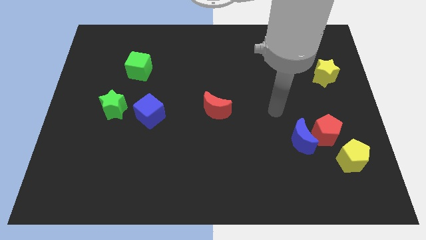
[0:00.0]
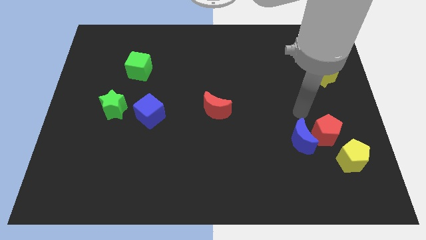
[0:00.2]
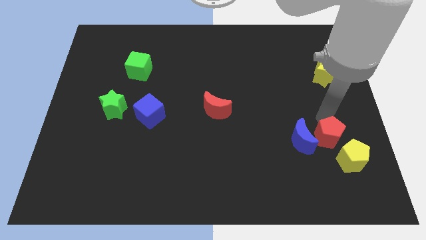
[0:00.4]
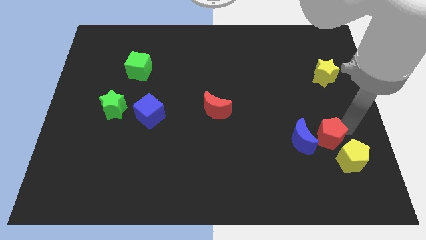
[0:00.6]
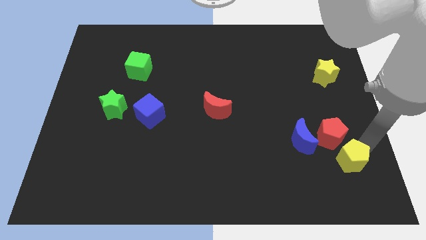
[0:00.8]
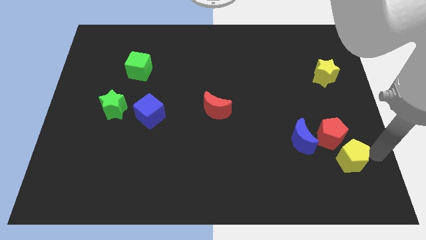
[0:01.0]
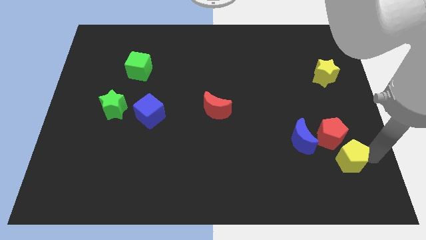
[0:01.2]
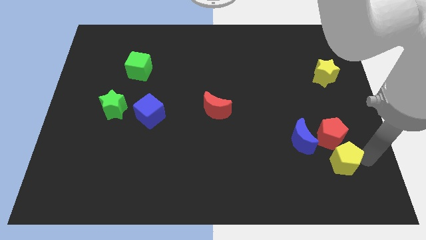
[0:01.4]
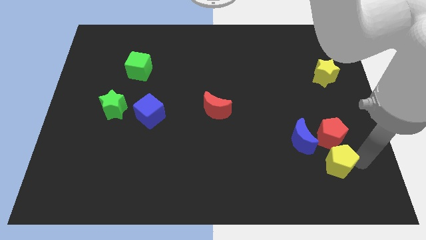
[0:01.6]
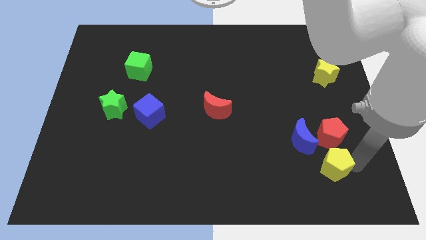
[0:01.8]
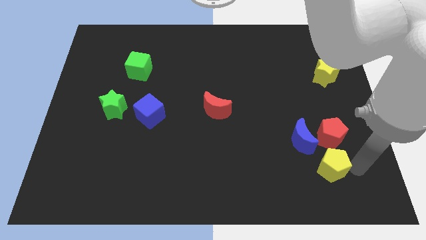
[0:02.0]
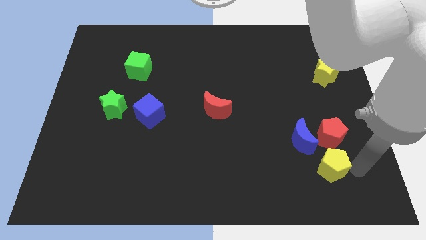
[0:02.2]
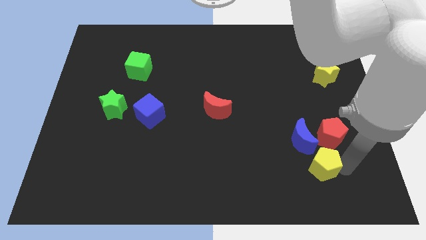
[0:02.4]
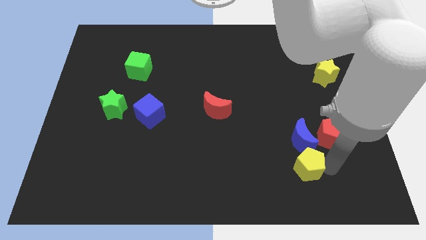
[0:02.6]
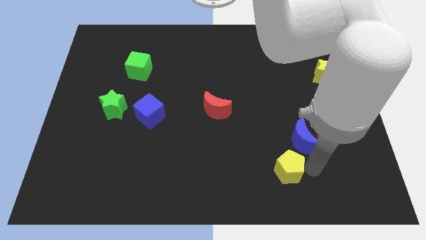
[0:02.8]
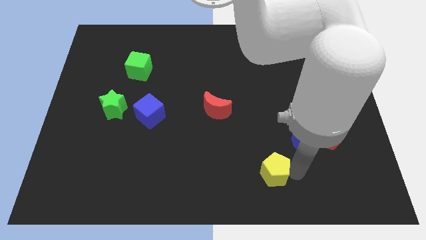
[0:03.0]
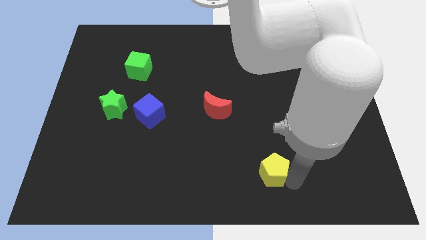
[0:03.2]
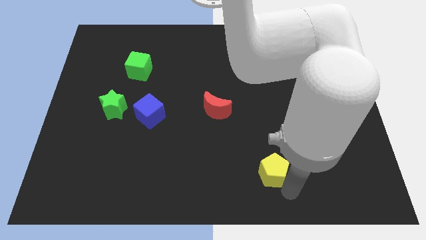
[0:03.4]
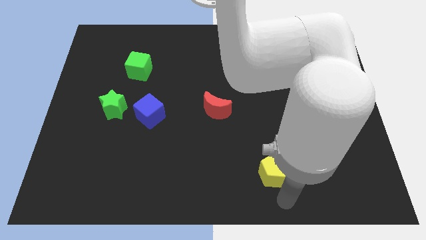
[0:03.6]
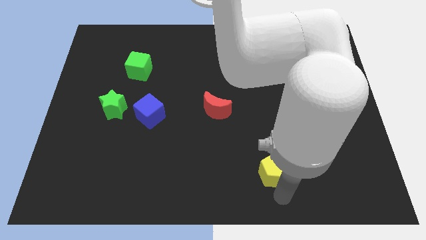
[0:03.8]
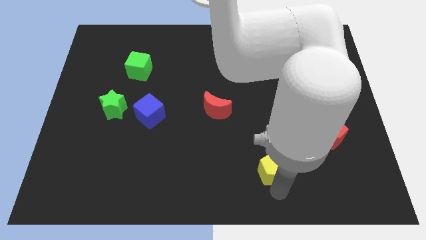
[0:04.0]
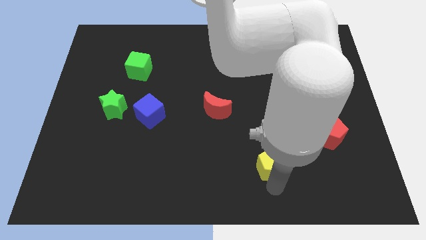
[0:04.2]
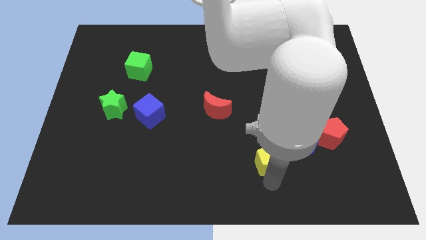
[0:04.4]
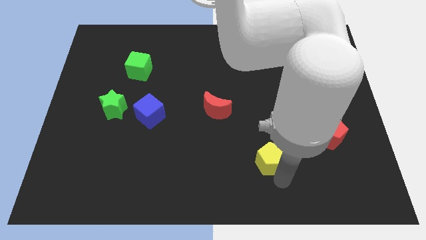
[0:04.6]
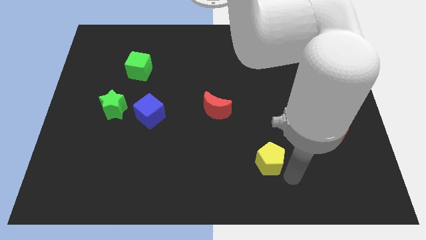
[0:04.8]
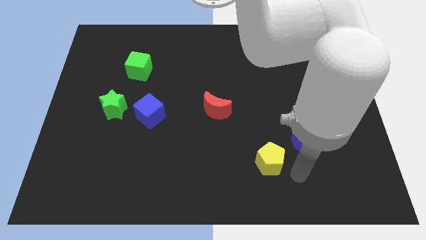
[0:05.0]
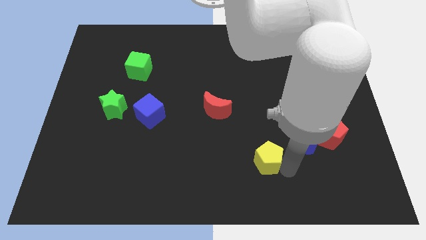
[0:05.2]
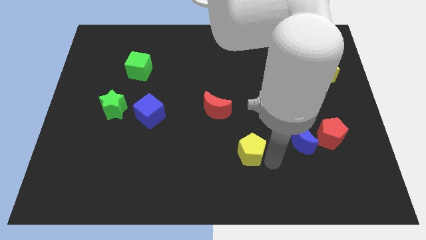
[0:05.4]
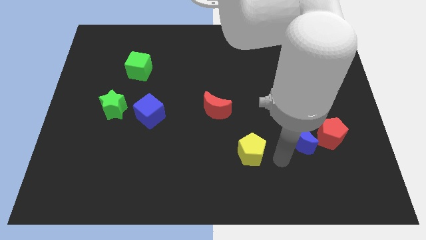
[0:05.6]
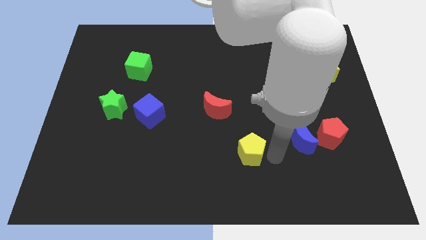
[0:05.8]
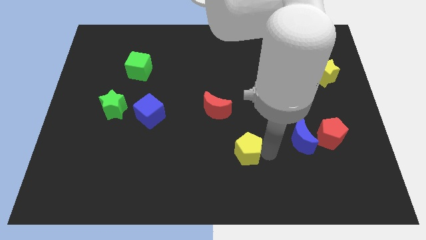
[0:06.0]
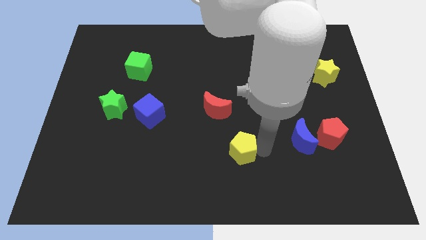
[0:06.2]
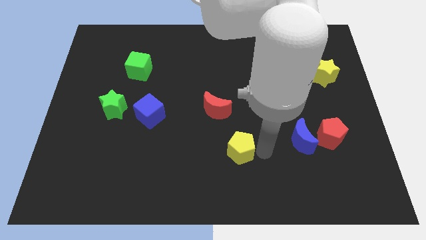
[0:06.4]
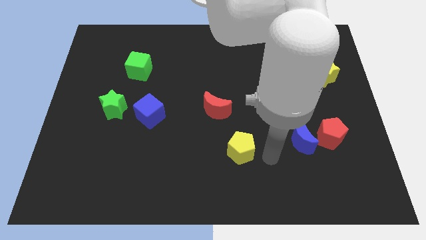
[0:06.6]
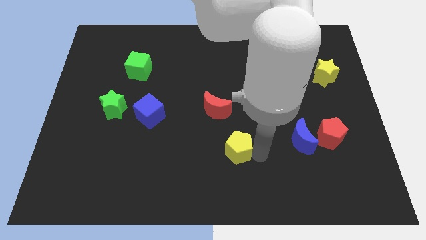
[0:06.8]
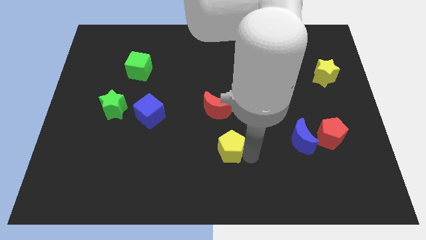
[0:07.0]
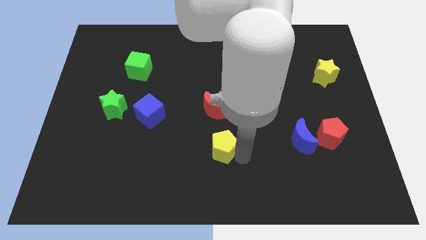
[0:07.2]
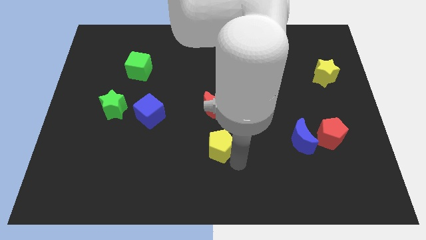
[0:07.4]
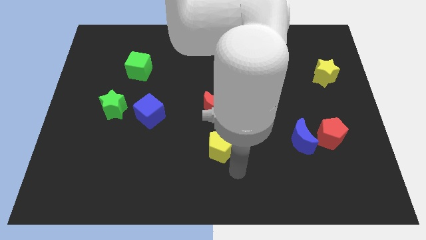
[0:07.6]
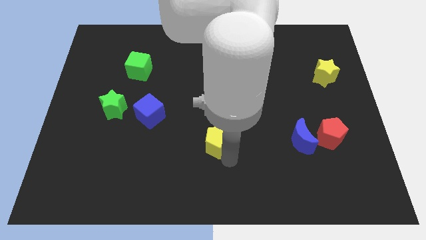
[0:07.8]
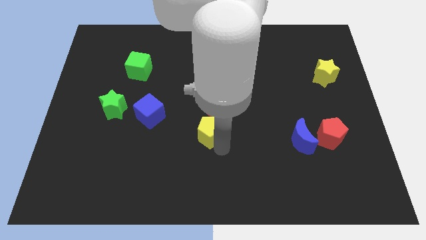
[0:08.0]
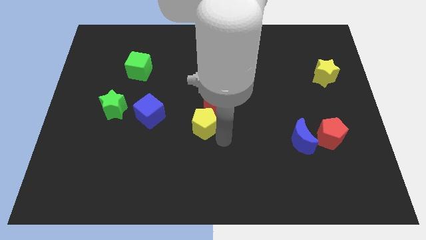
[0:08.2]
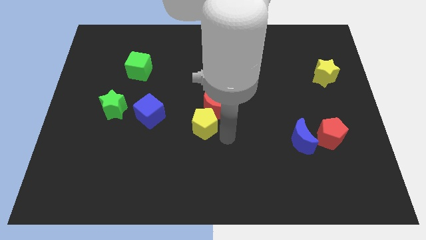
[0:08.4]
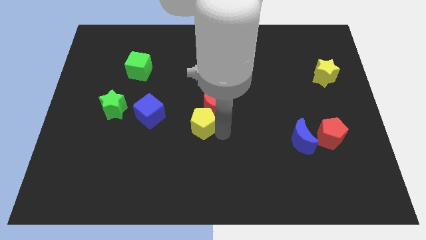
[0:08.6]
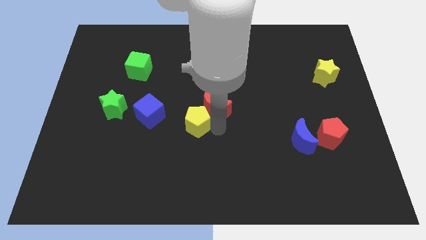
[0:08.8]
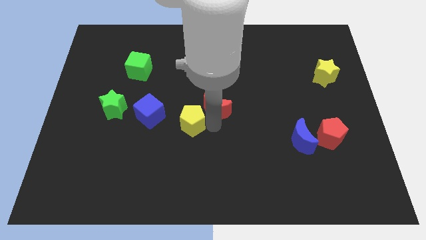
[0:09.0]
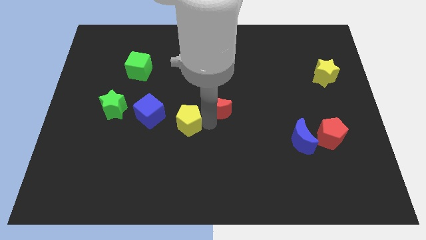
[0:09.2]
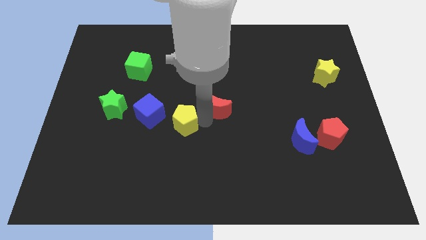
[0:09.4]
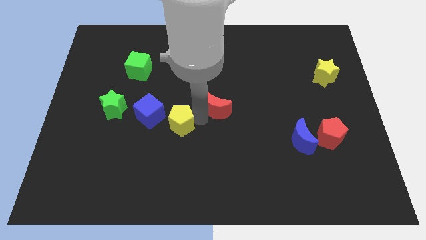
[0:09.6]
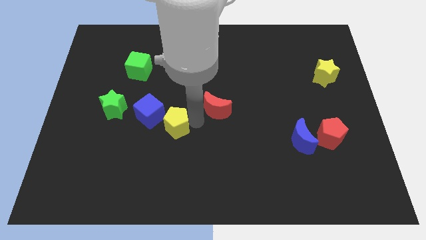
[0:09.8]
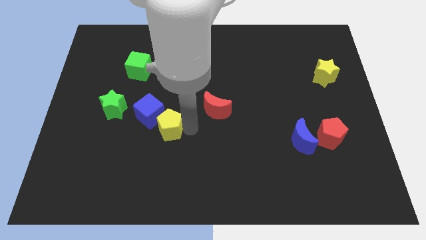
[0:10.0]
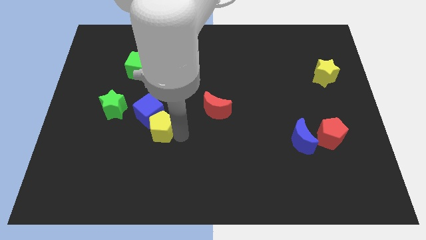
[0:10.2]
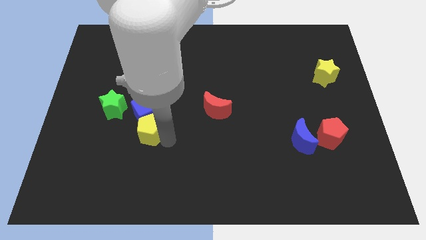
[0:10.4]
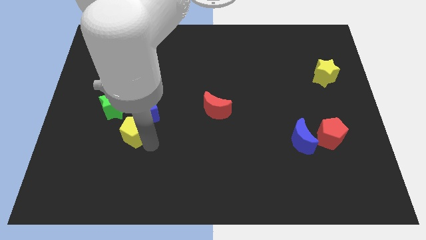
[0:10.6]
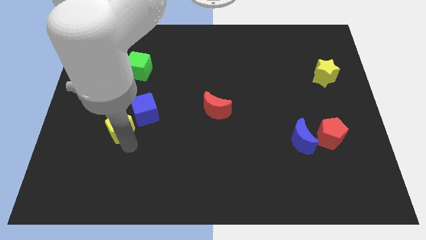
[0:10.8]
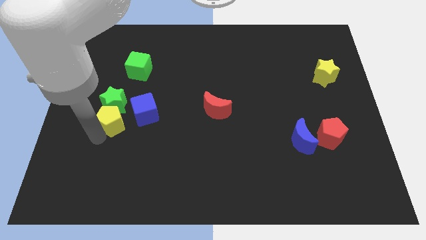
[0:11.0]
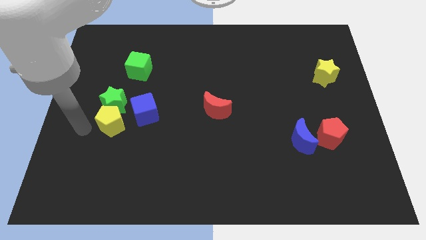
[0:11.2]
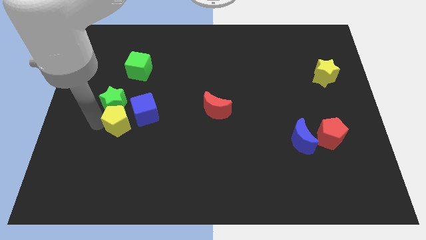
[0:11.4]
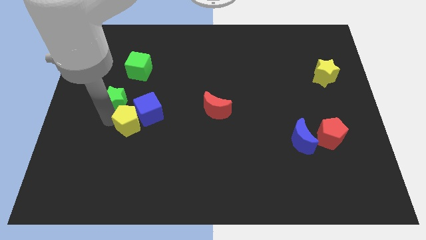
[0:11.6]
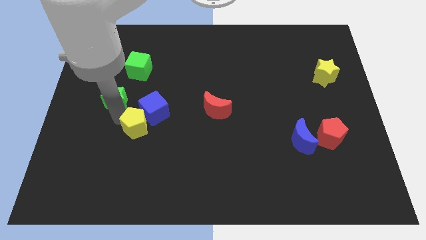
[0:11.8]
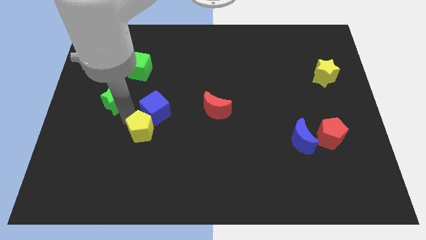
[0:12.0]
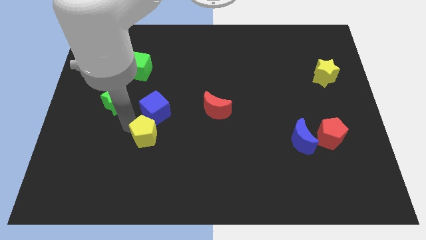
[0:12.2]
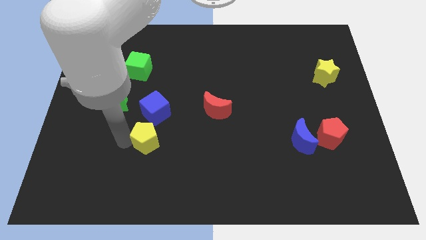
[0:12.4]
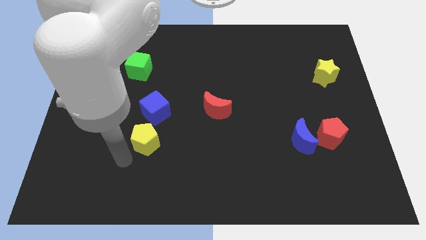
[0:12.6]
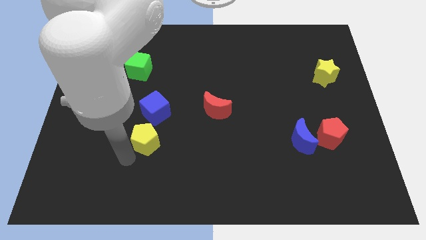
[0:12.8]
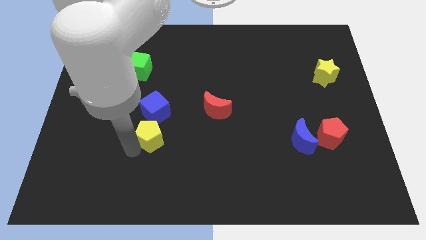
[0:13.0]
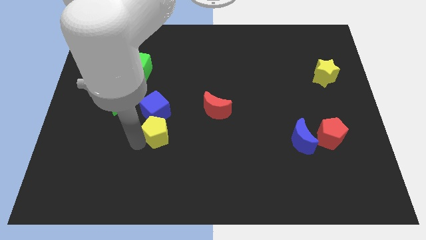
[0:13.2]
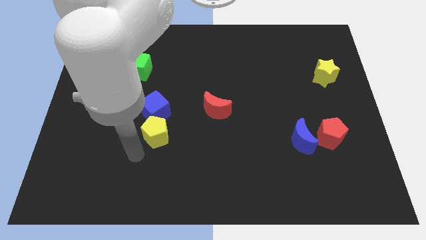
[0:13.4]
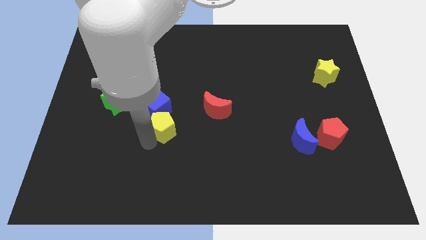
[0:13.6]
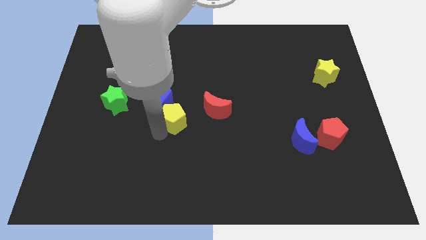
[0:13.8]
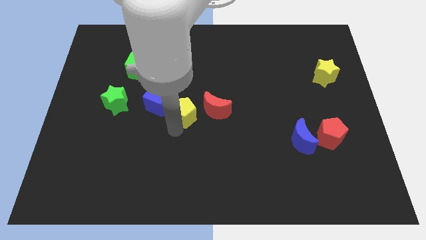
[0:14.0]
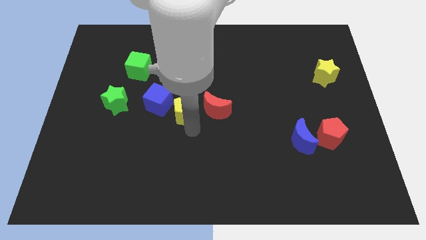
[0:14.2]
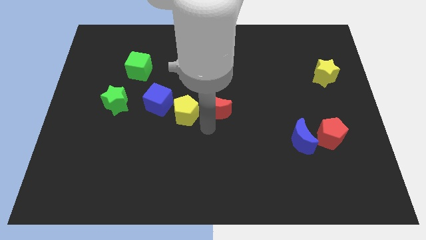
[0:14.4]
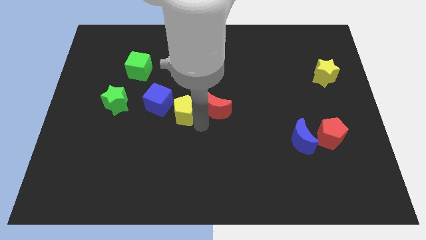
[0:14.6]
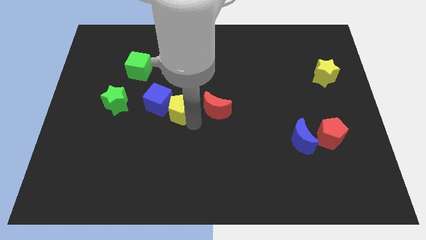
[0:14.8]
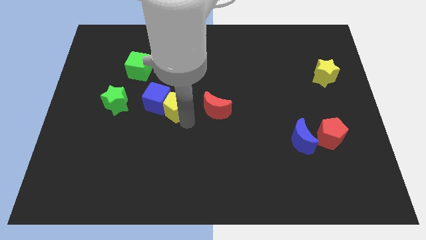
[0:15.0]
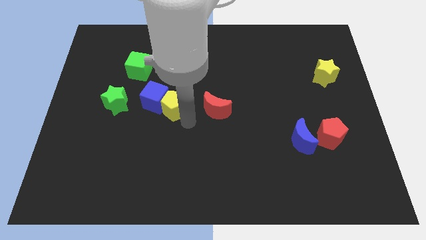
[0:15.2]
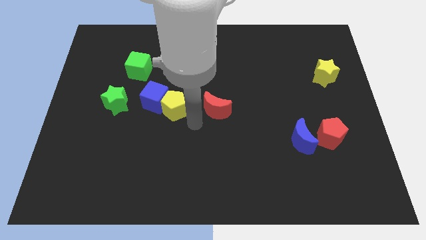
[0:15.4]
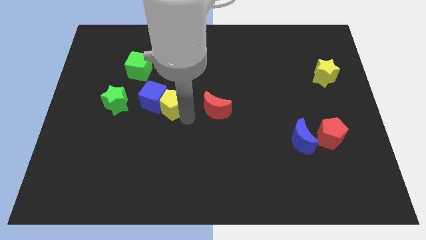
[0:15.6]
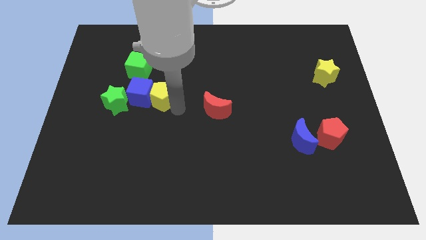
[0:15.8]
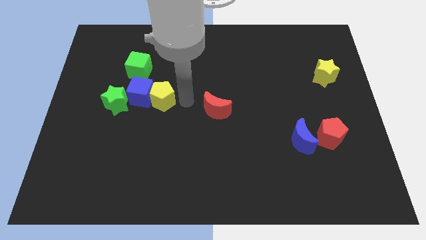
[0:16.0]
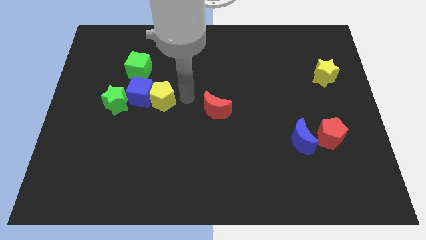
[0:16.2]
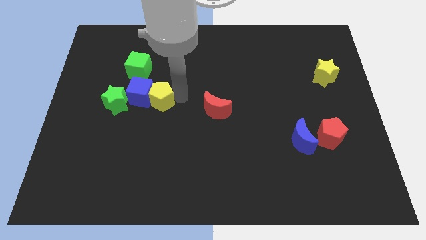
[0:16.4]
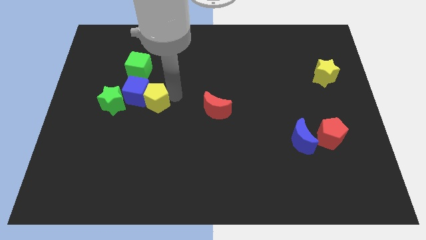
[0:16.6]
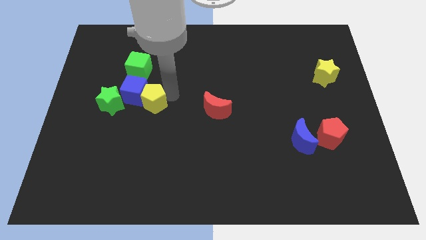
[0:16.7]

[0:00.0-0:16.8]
slide the yellow pentagon to the bottom of the green cube
